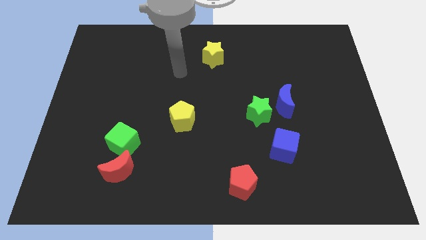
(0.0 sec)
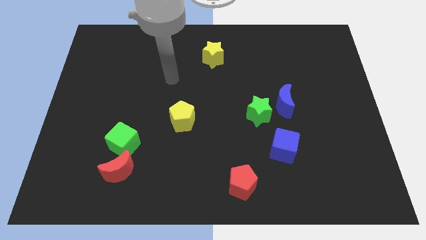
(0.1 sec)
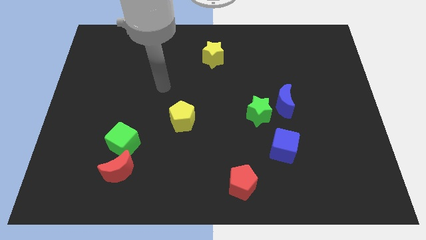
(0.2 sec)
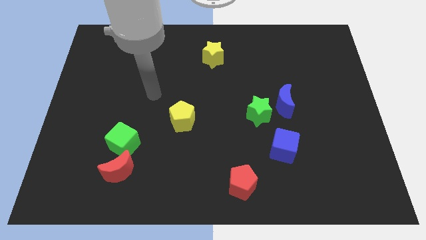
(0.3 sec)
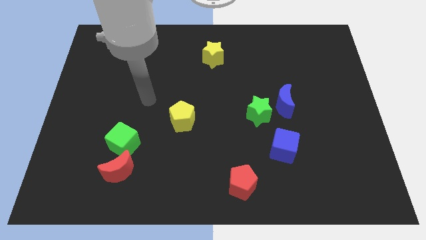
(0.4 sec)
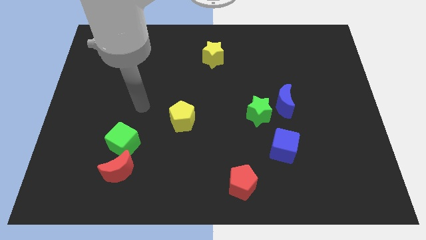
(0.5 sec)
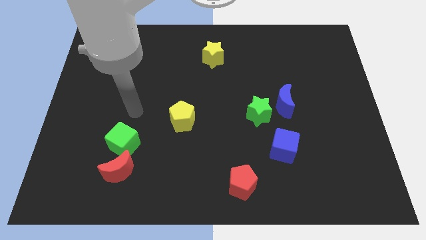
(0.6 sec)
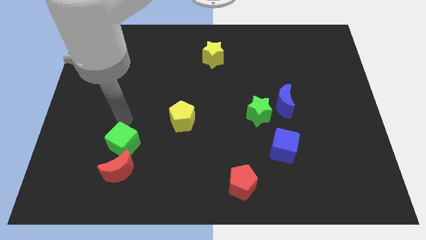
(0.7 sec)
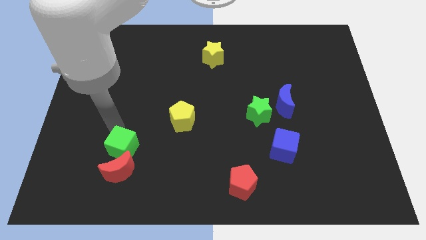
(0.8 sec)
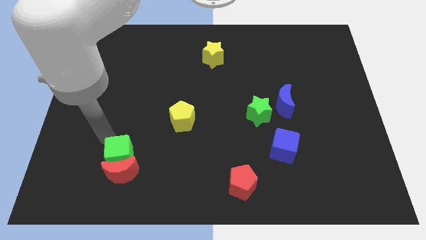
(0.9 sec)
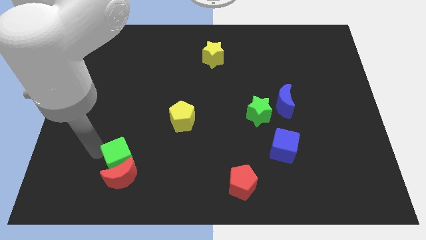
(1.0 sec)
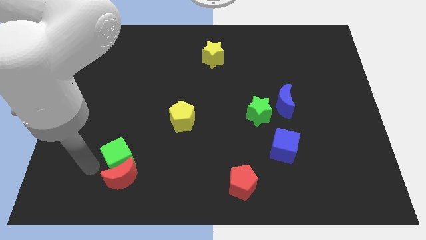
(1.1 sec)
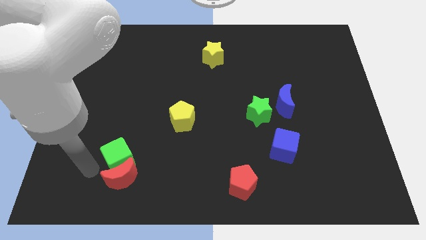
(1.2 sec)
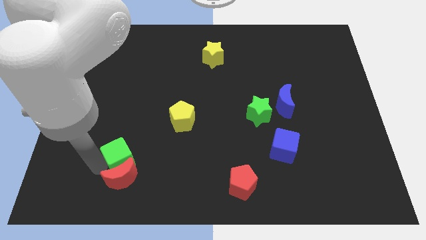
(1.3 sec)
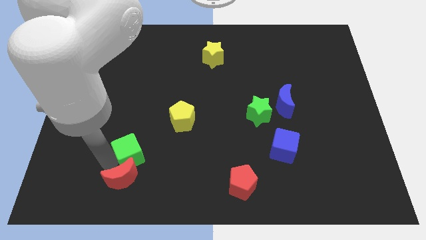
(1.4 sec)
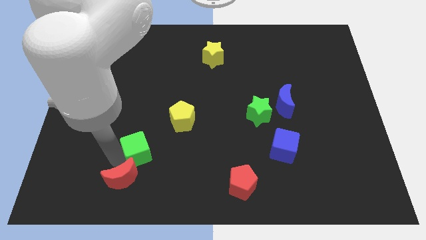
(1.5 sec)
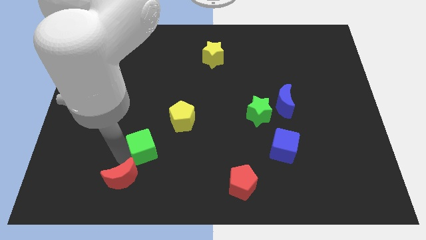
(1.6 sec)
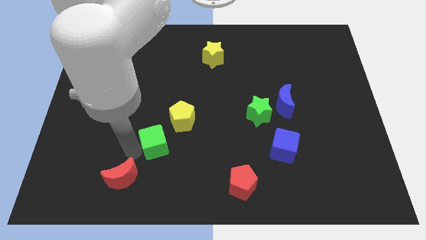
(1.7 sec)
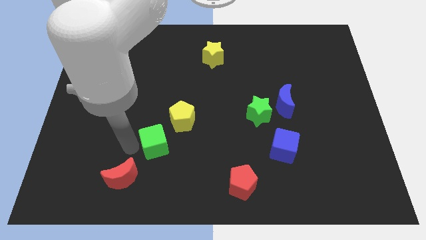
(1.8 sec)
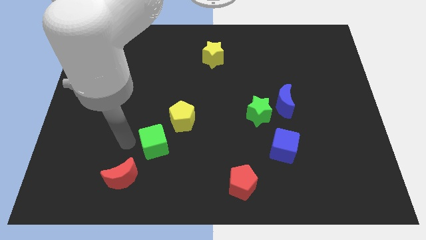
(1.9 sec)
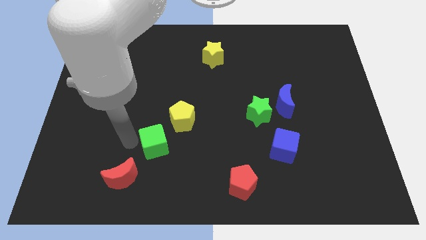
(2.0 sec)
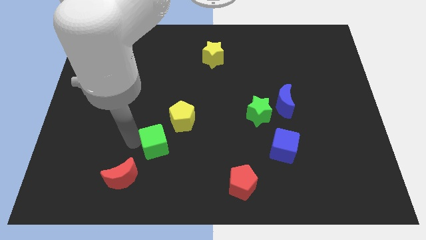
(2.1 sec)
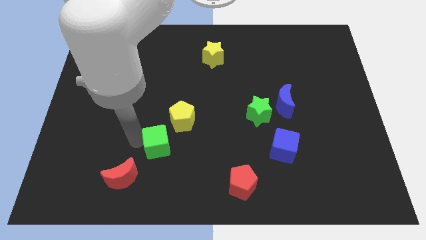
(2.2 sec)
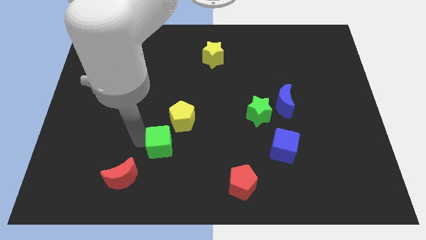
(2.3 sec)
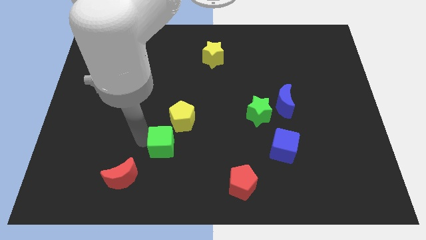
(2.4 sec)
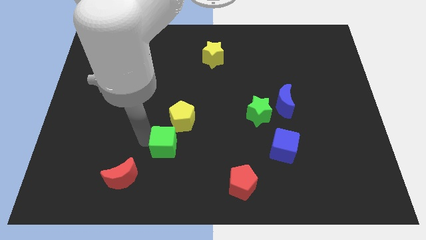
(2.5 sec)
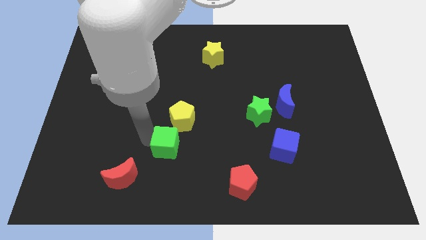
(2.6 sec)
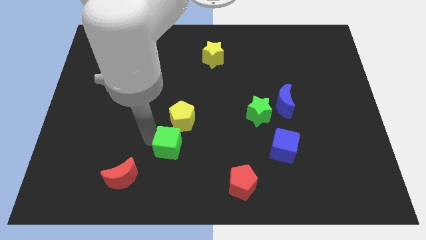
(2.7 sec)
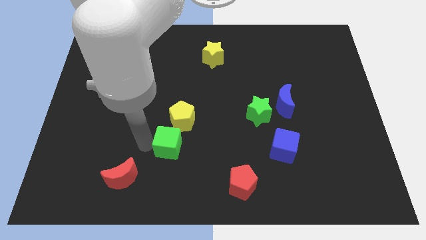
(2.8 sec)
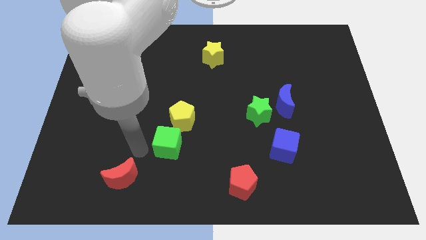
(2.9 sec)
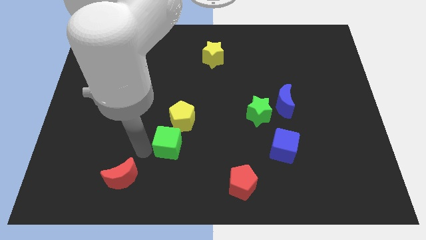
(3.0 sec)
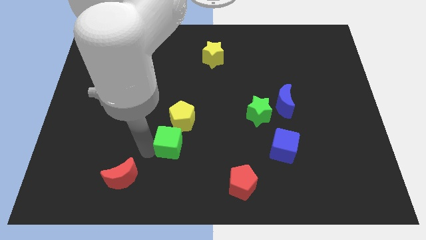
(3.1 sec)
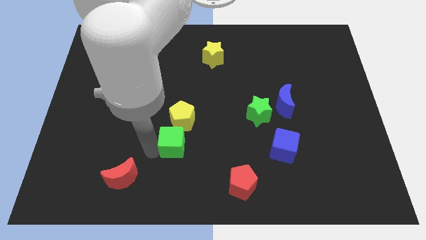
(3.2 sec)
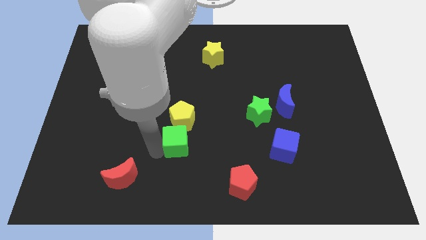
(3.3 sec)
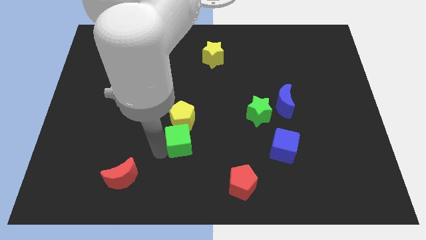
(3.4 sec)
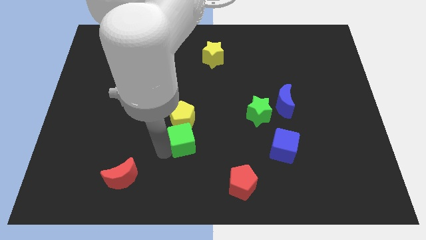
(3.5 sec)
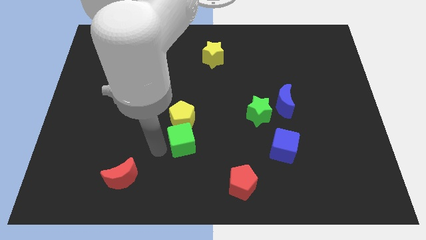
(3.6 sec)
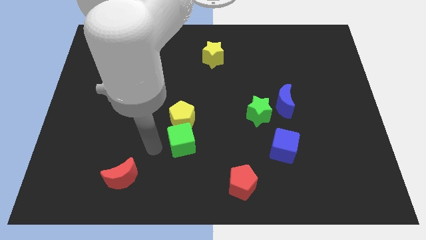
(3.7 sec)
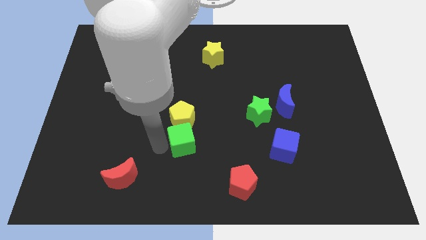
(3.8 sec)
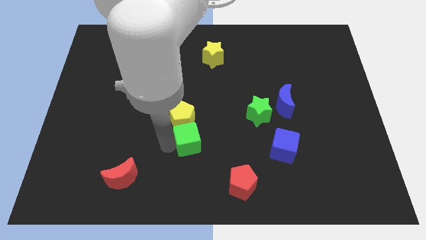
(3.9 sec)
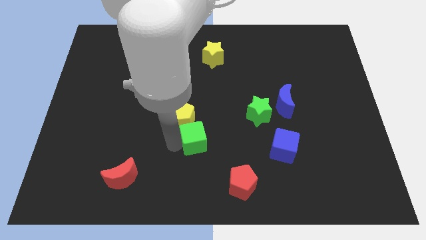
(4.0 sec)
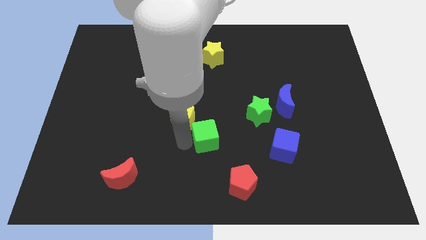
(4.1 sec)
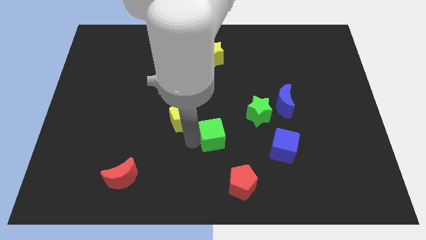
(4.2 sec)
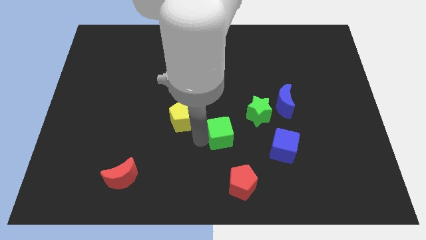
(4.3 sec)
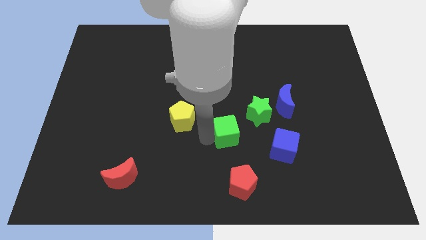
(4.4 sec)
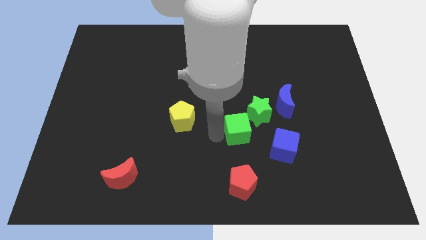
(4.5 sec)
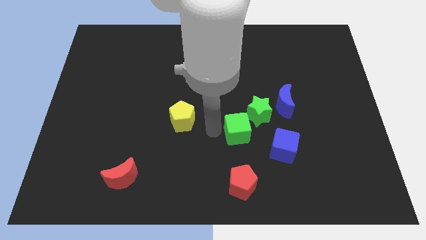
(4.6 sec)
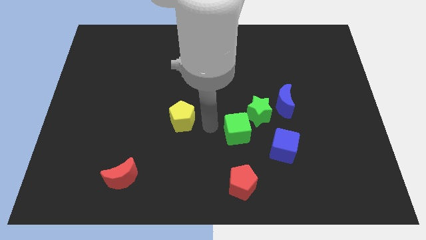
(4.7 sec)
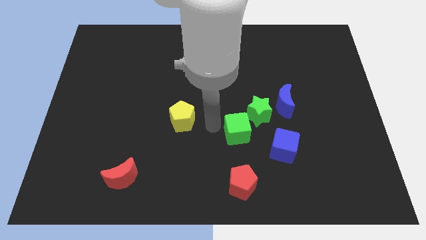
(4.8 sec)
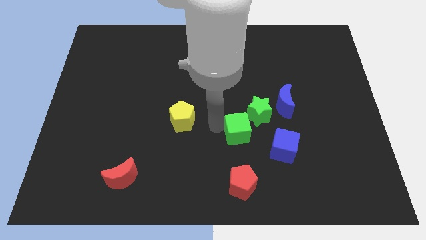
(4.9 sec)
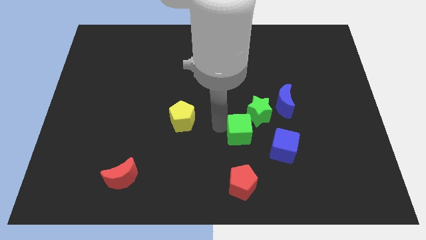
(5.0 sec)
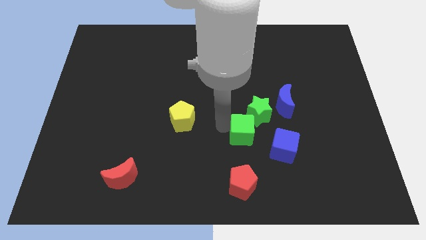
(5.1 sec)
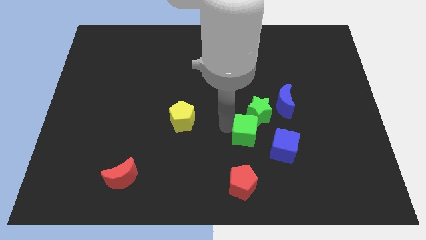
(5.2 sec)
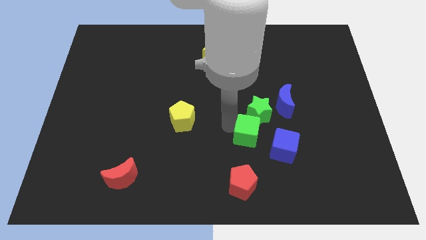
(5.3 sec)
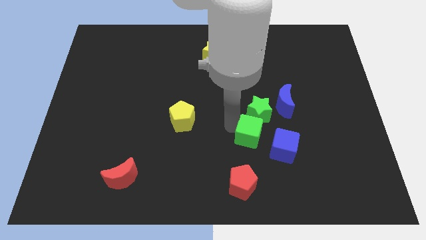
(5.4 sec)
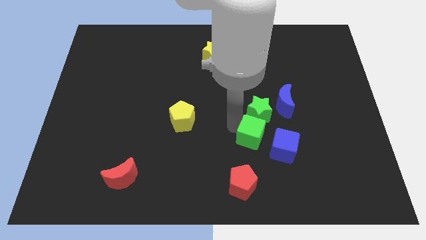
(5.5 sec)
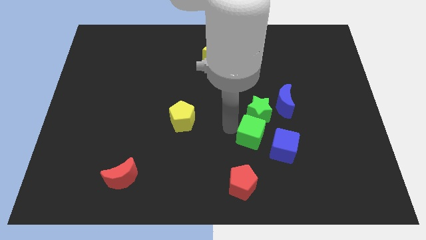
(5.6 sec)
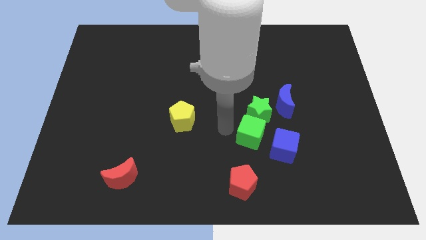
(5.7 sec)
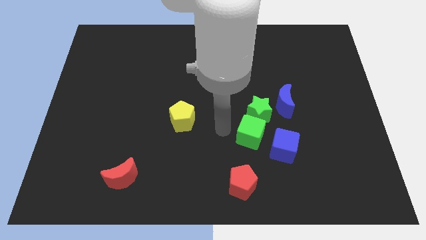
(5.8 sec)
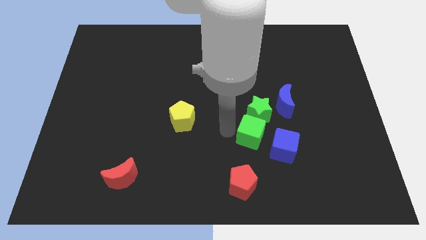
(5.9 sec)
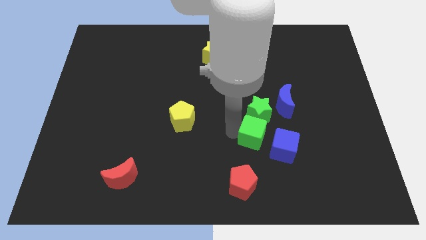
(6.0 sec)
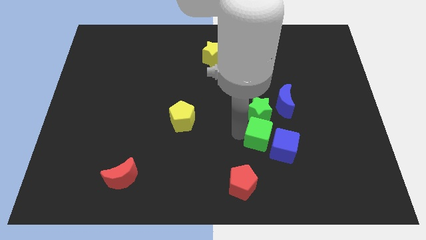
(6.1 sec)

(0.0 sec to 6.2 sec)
push the green cube to the blue cube

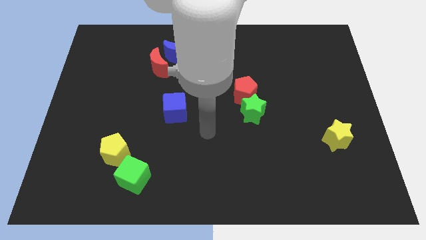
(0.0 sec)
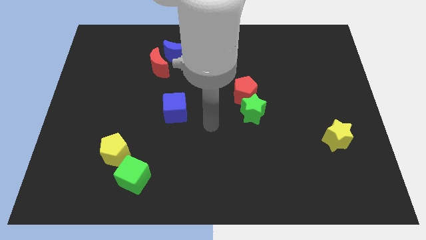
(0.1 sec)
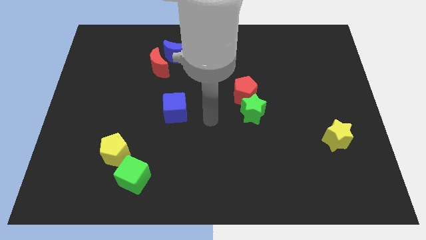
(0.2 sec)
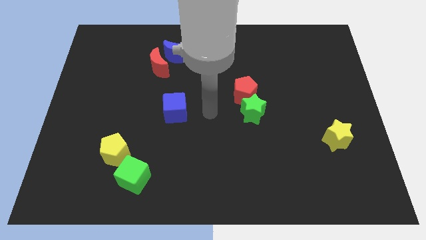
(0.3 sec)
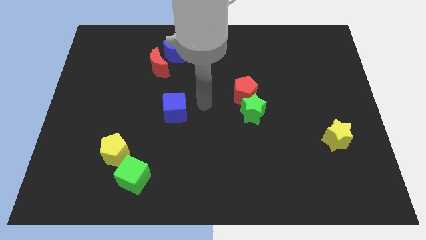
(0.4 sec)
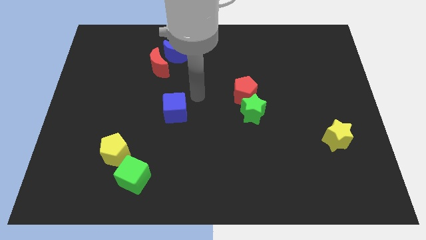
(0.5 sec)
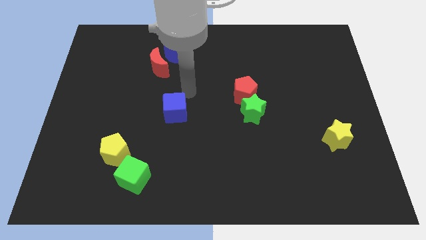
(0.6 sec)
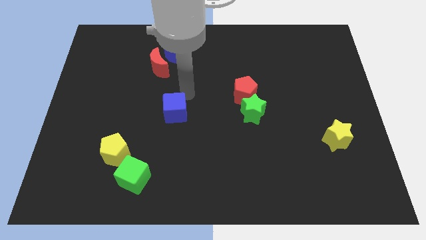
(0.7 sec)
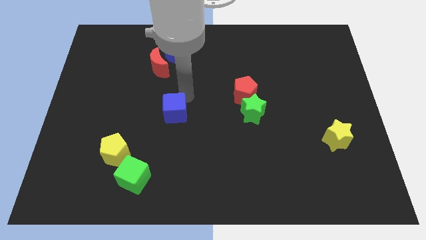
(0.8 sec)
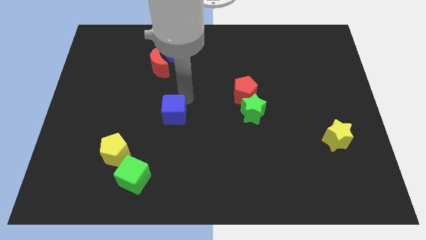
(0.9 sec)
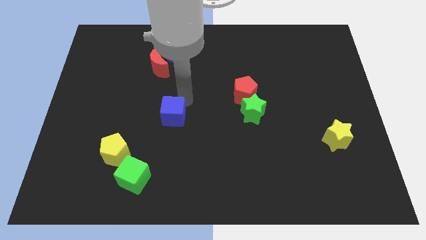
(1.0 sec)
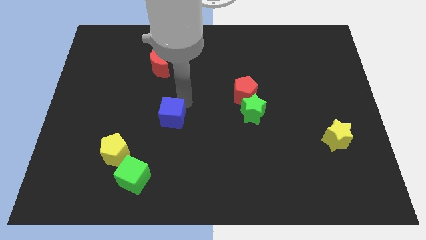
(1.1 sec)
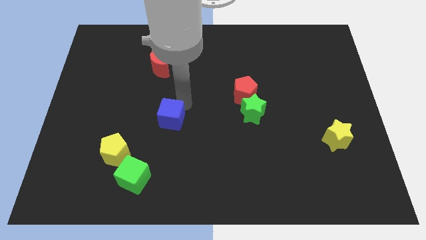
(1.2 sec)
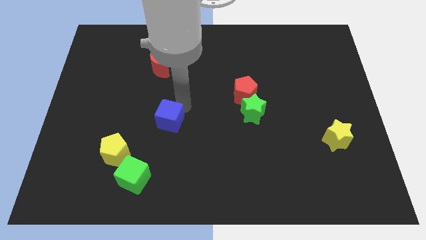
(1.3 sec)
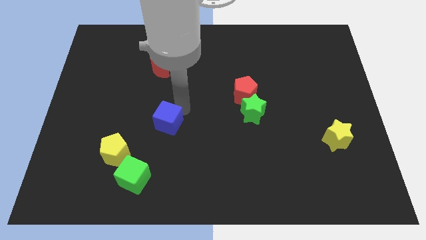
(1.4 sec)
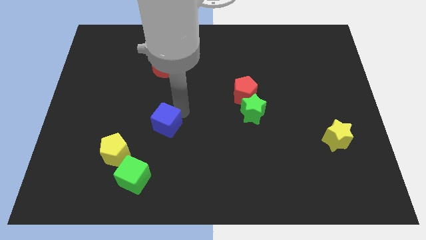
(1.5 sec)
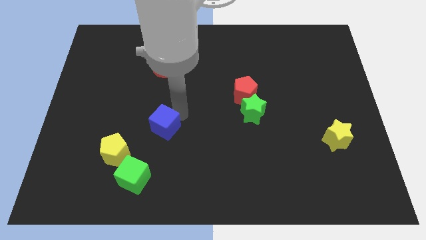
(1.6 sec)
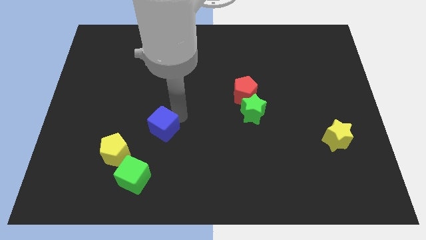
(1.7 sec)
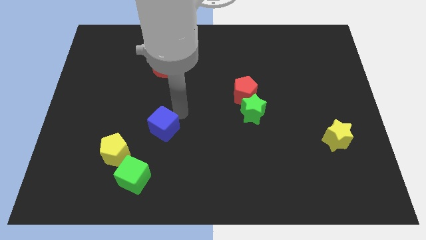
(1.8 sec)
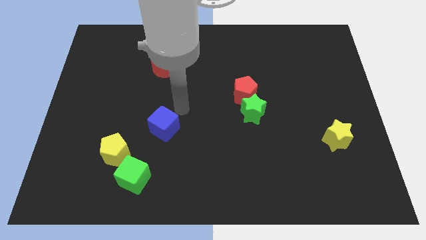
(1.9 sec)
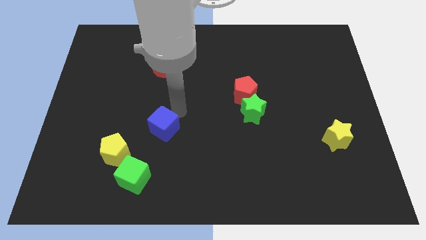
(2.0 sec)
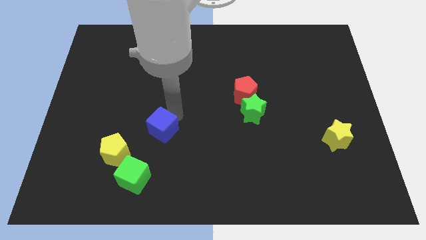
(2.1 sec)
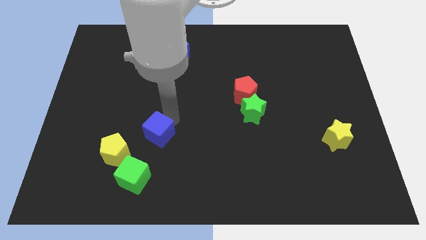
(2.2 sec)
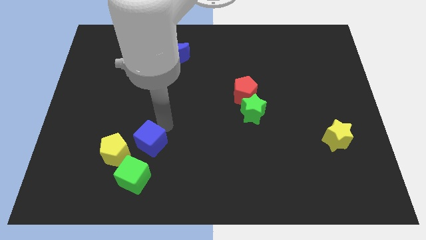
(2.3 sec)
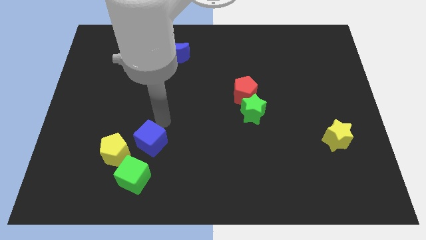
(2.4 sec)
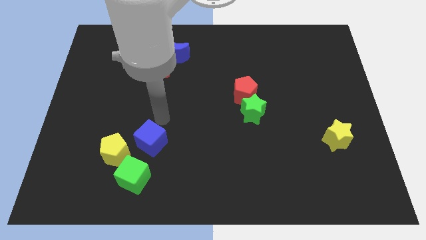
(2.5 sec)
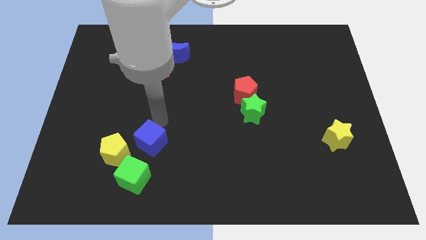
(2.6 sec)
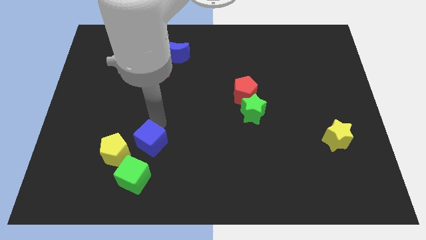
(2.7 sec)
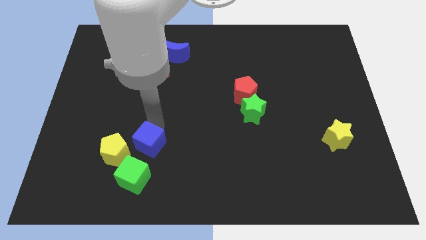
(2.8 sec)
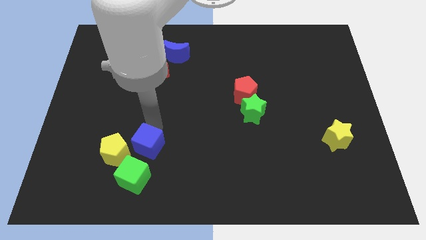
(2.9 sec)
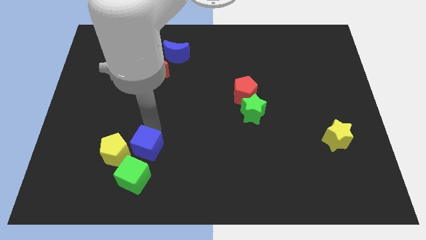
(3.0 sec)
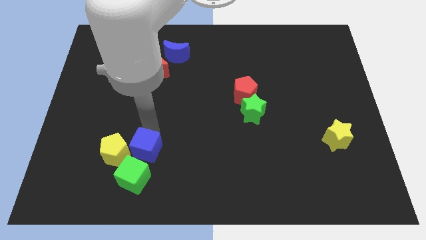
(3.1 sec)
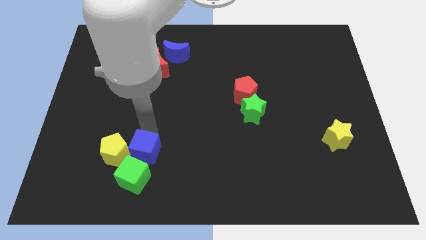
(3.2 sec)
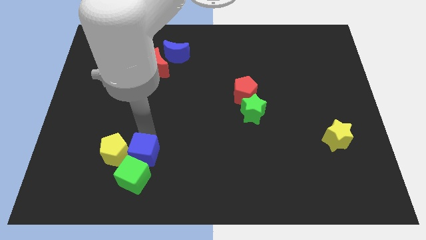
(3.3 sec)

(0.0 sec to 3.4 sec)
slide the blue cube next to the green cube
